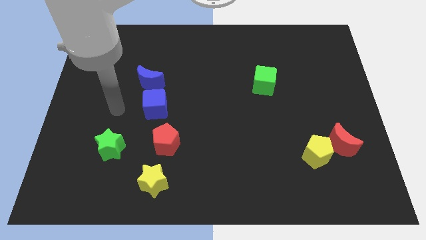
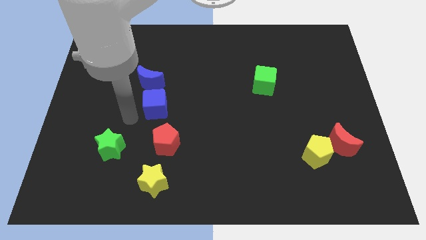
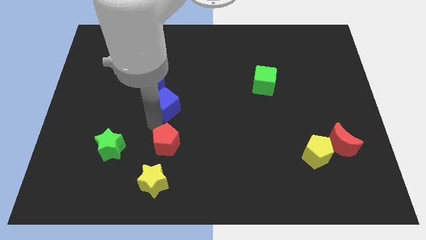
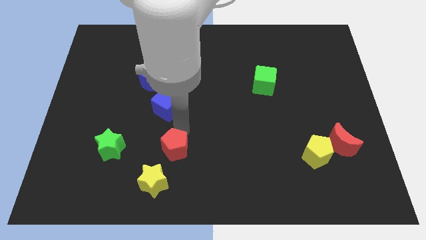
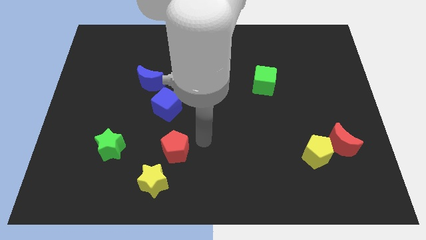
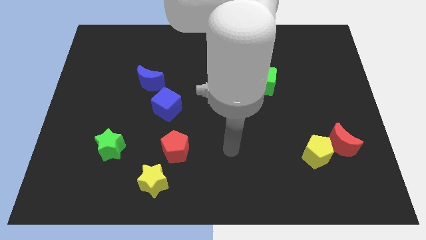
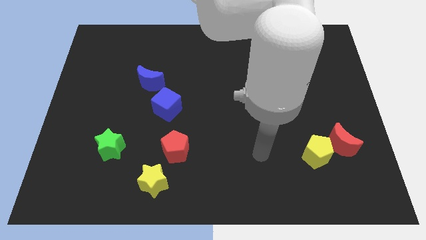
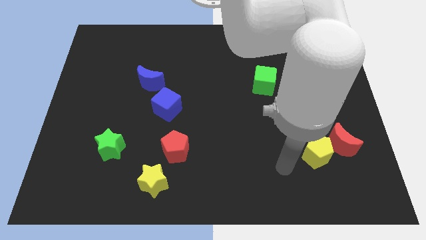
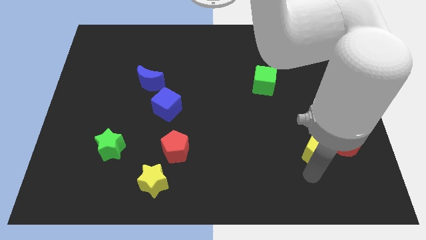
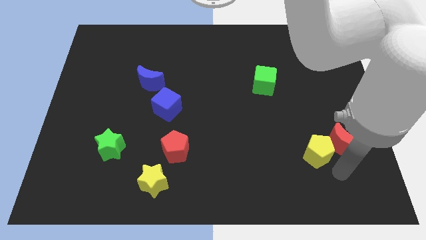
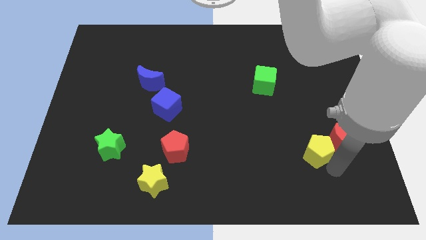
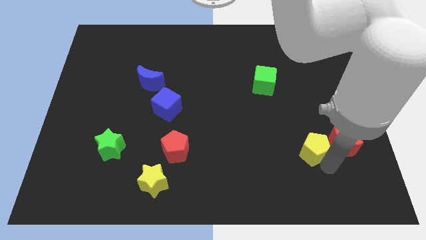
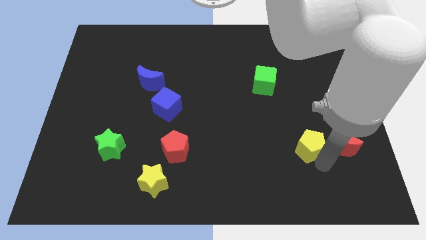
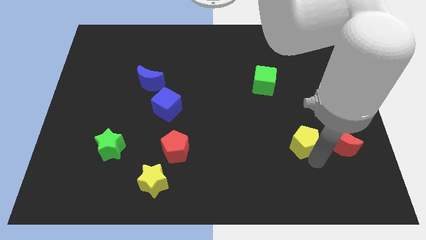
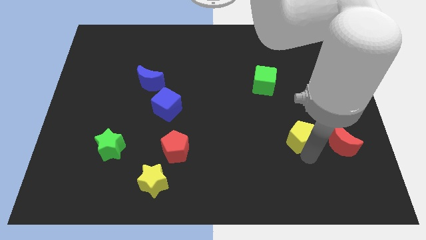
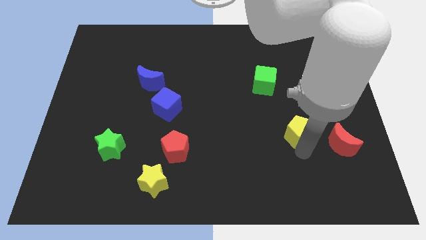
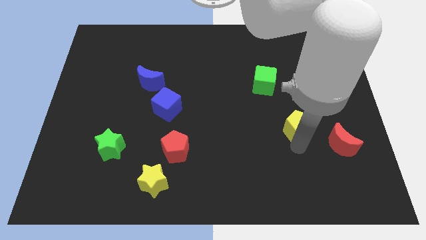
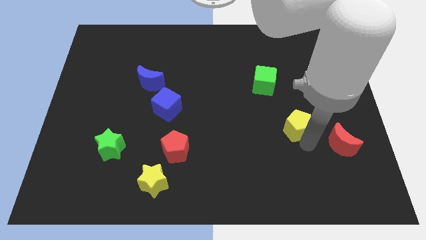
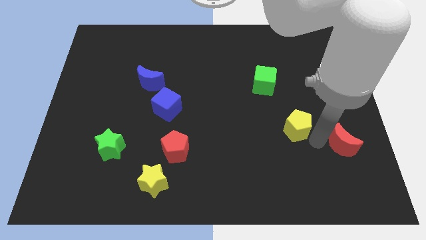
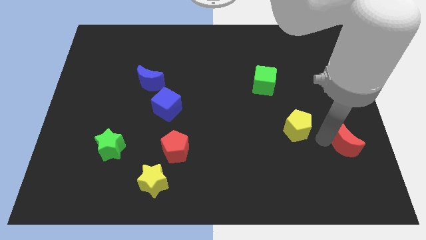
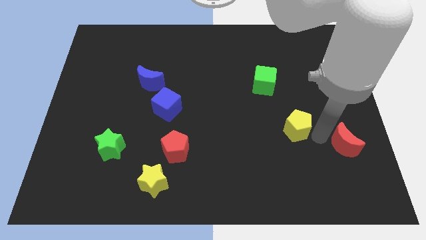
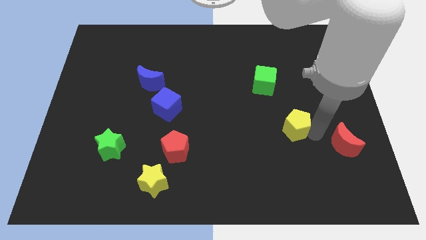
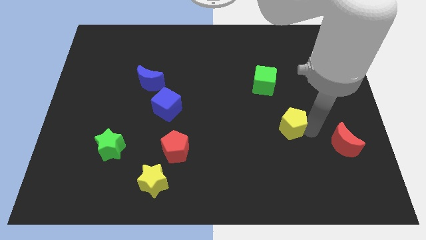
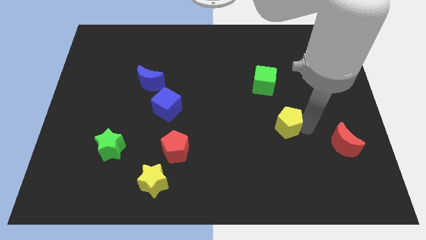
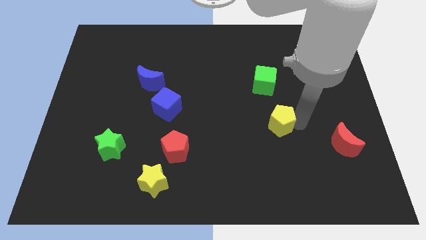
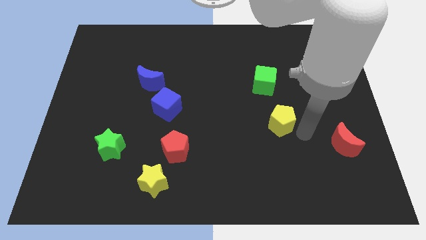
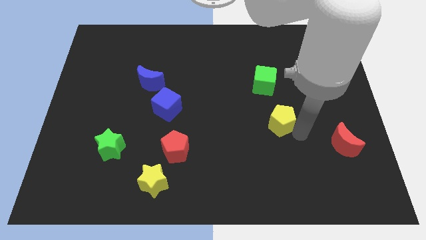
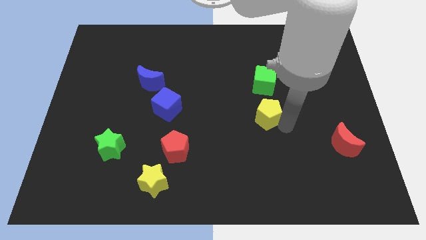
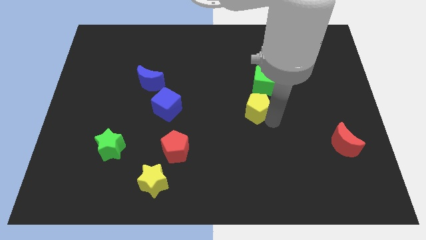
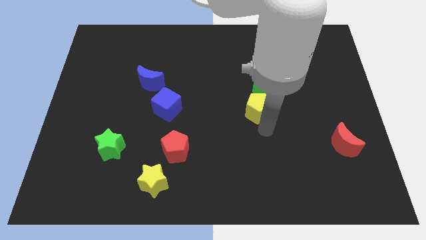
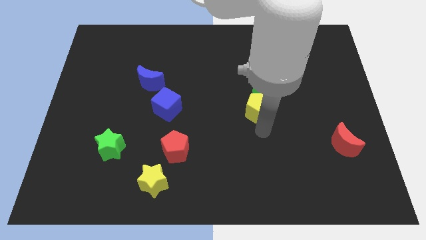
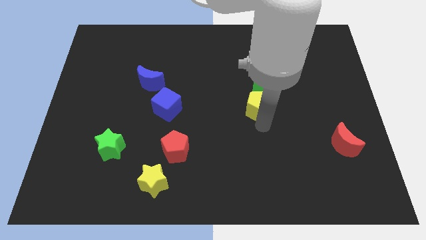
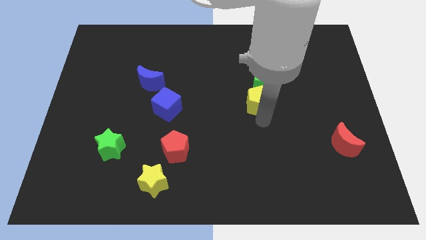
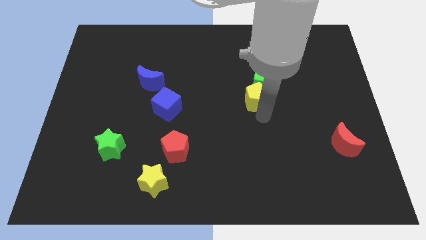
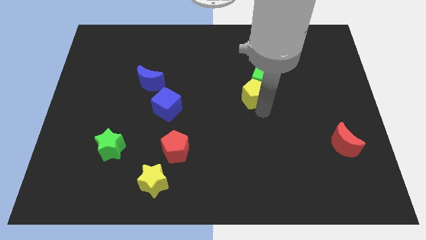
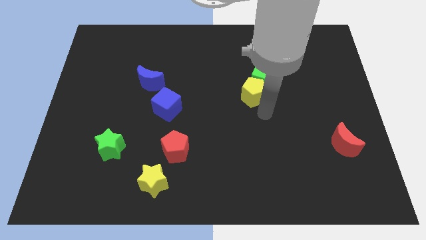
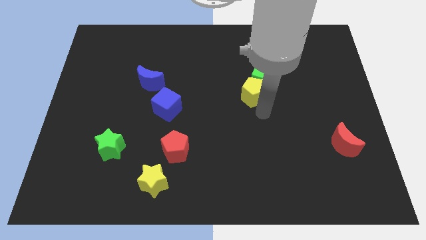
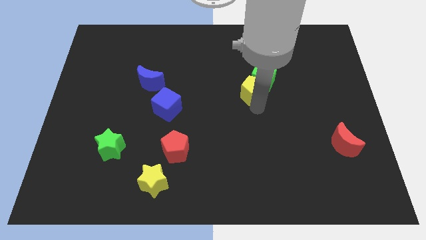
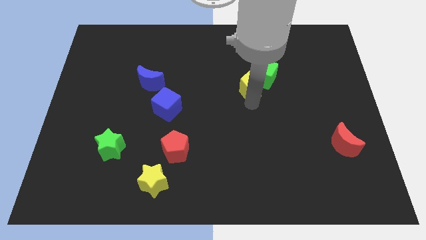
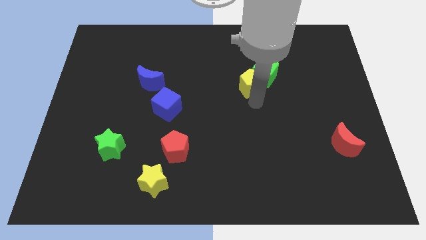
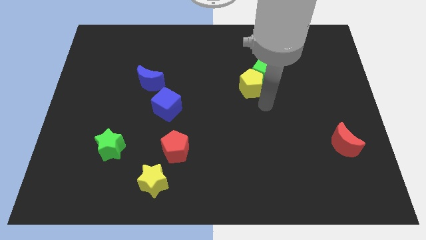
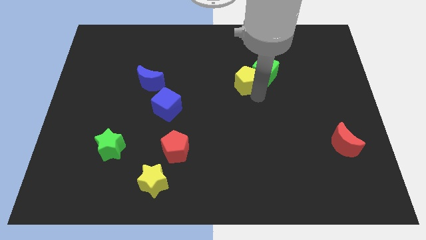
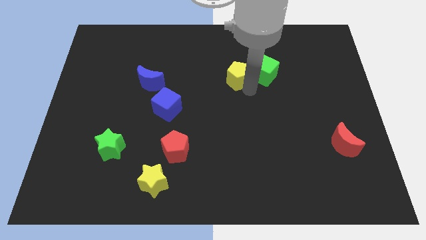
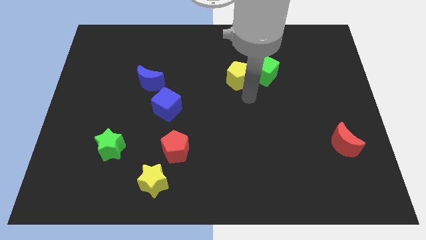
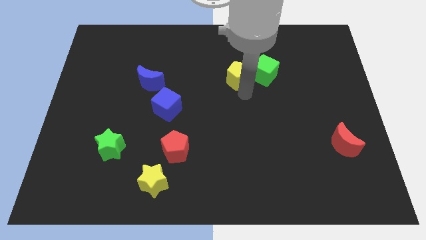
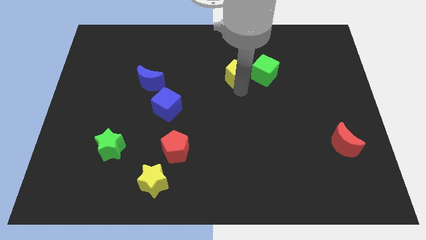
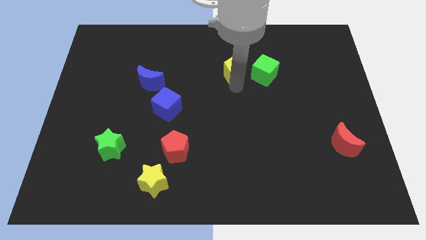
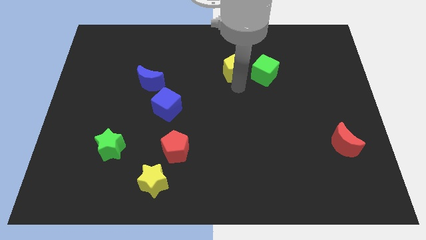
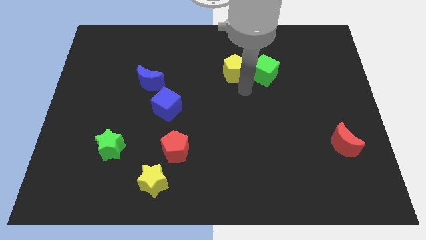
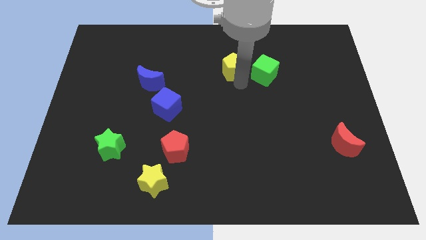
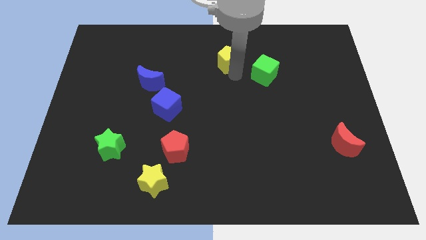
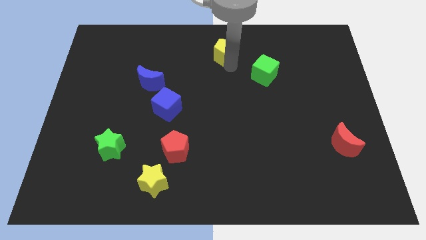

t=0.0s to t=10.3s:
slide the yellow pentagon to the top side
